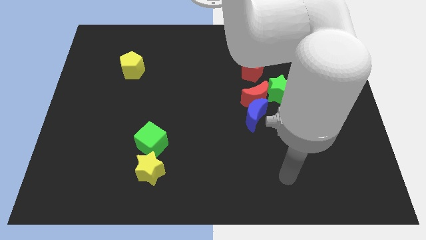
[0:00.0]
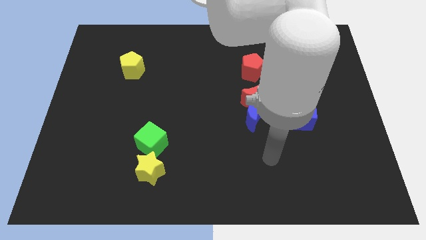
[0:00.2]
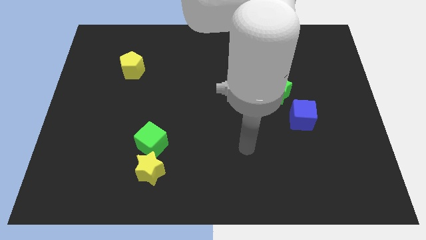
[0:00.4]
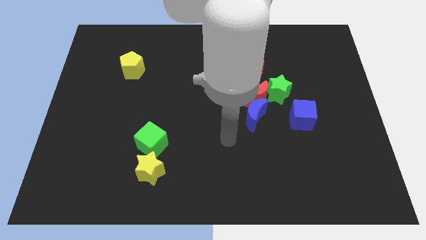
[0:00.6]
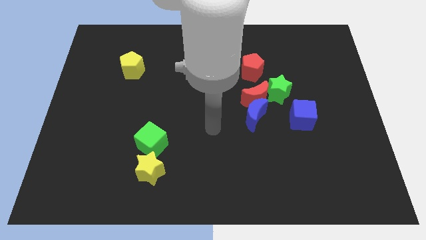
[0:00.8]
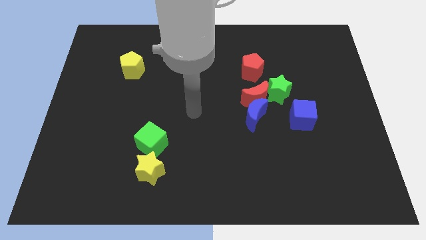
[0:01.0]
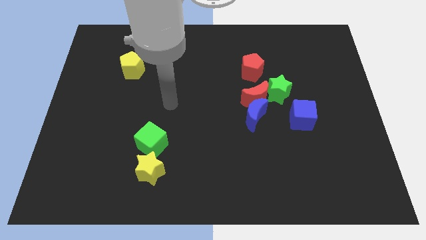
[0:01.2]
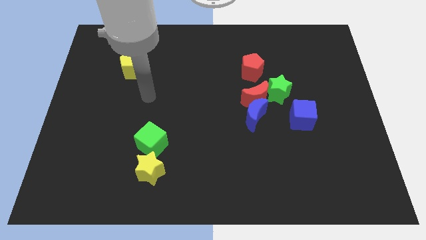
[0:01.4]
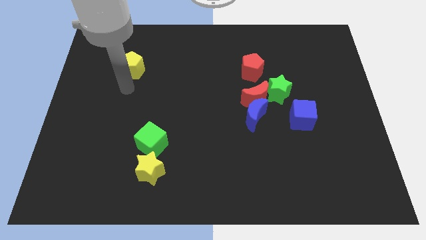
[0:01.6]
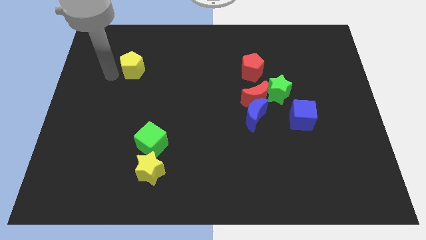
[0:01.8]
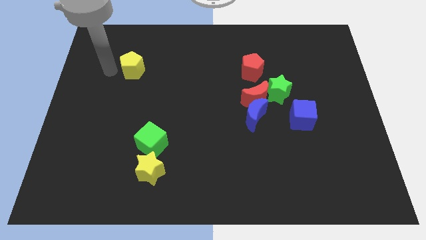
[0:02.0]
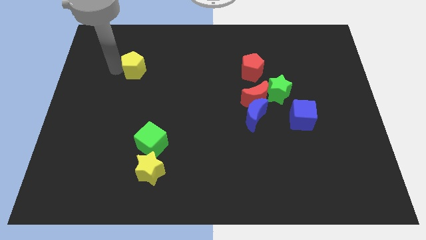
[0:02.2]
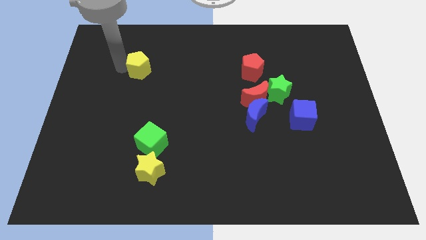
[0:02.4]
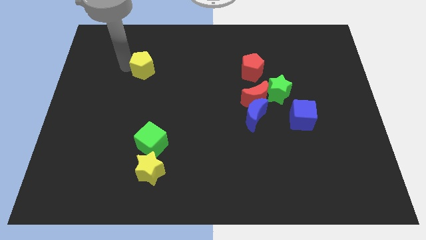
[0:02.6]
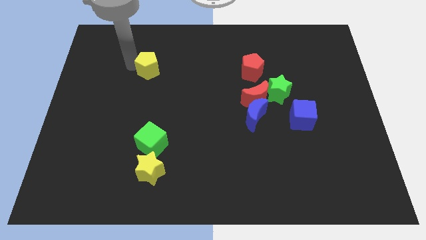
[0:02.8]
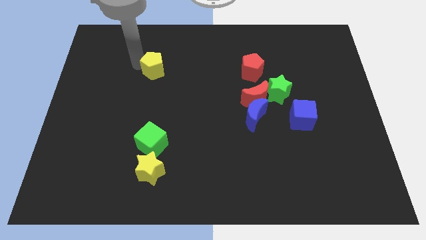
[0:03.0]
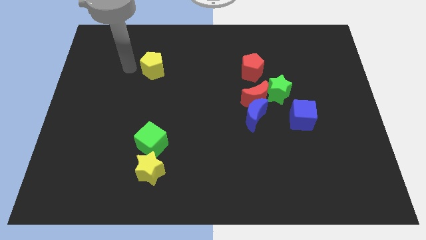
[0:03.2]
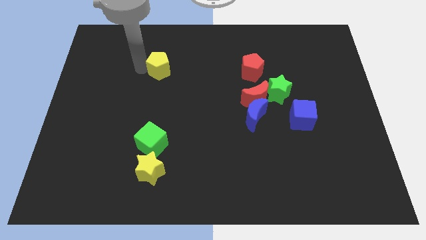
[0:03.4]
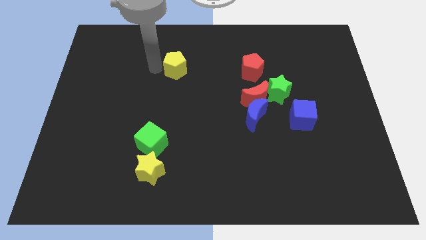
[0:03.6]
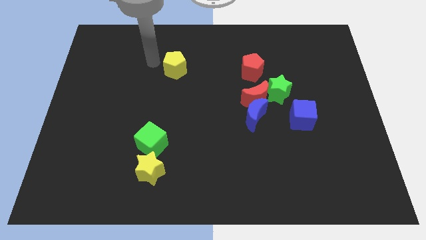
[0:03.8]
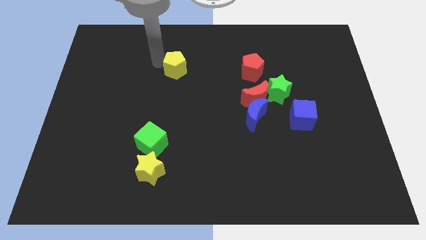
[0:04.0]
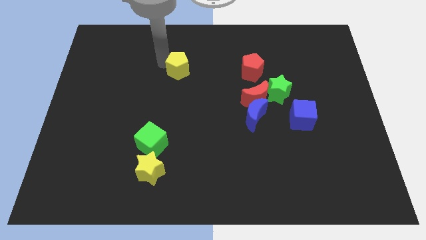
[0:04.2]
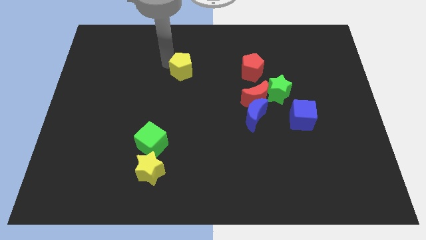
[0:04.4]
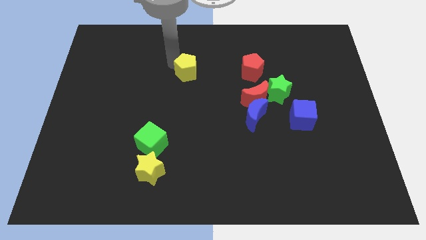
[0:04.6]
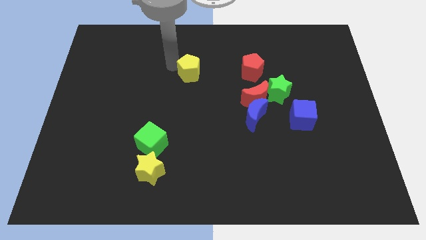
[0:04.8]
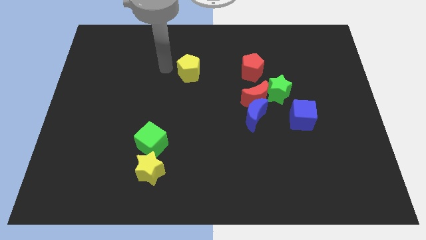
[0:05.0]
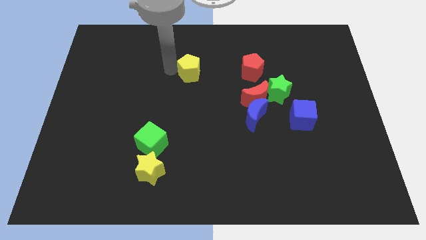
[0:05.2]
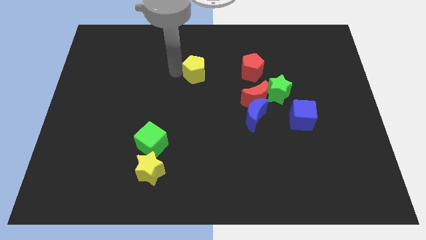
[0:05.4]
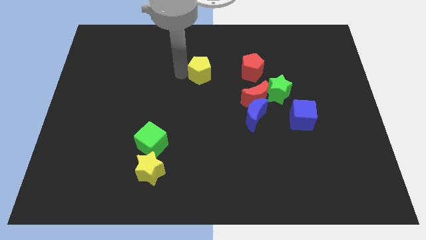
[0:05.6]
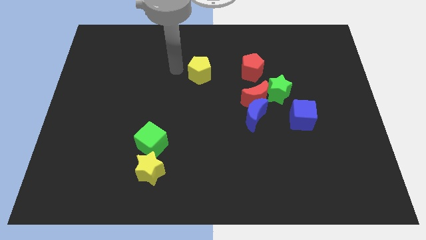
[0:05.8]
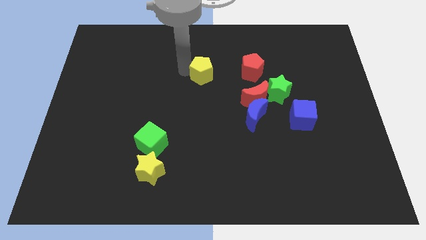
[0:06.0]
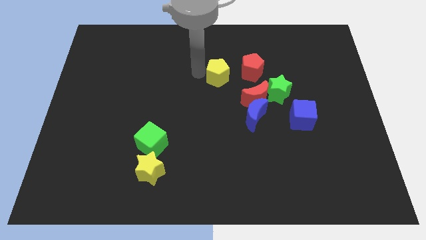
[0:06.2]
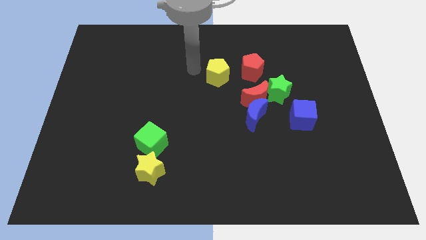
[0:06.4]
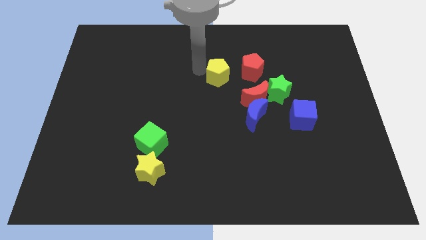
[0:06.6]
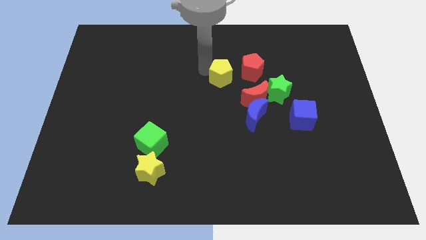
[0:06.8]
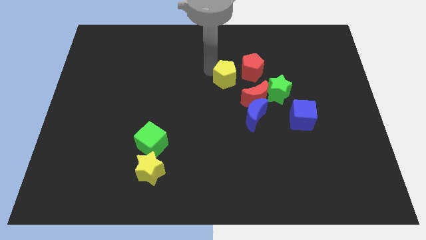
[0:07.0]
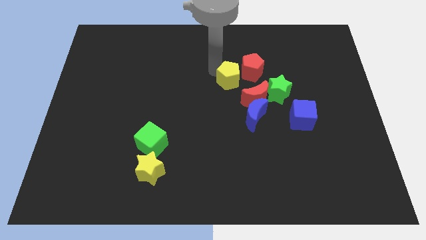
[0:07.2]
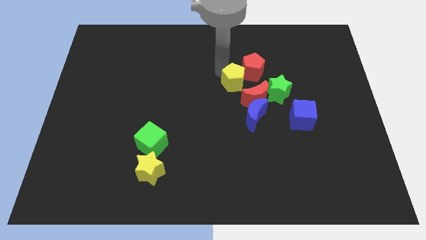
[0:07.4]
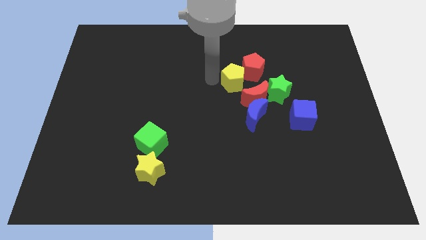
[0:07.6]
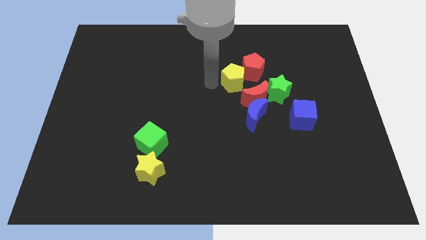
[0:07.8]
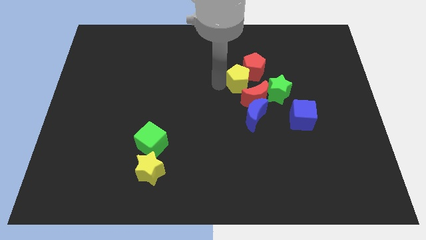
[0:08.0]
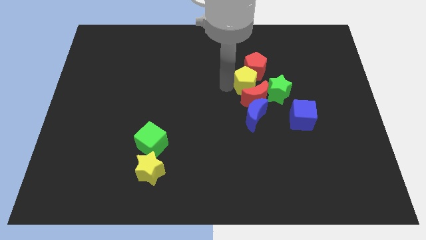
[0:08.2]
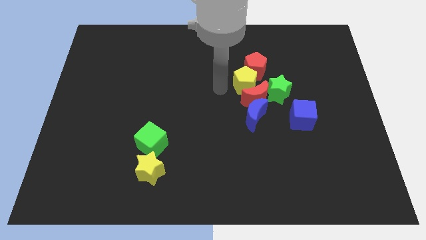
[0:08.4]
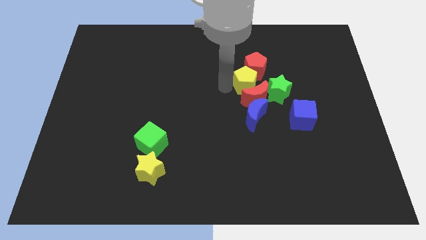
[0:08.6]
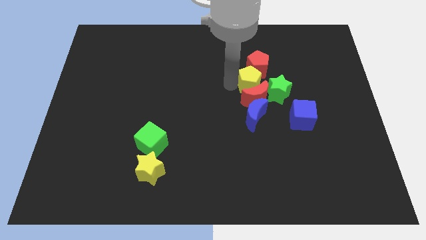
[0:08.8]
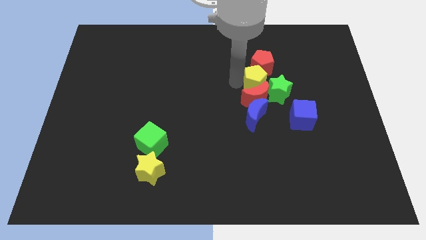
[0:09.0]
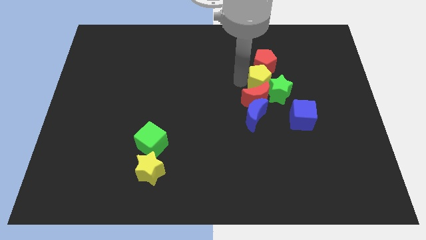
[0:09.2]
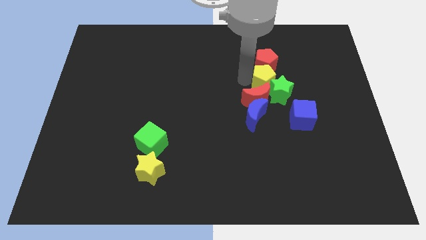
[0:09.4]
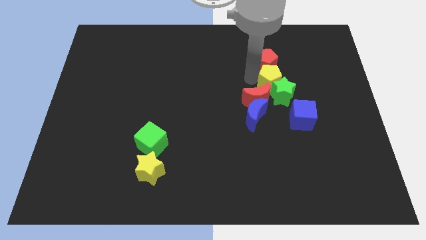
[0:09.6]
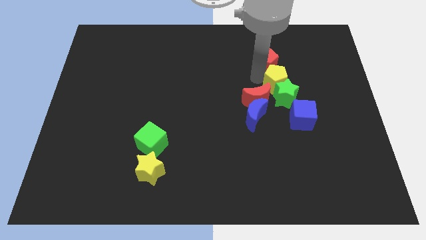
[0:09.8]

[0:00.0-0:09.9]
put the yellow pentagon to the top side of the blue cube

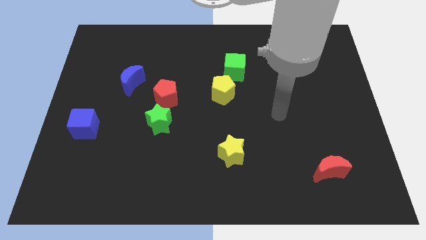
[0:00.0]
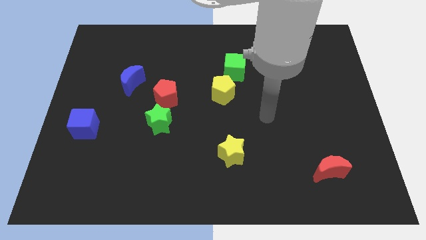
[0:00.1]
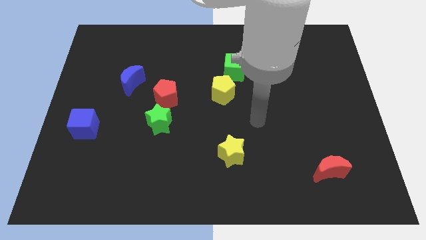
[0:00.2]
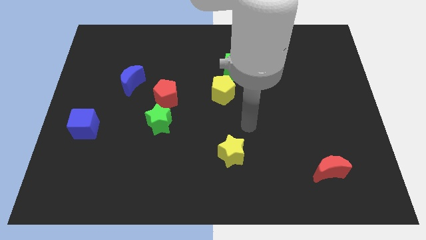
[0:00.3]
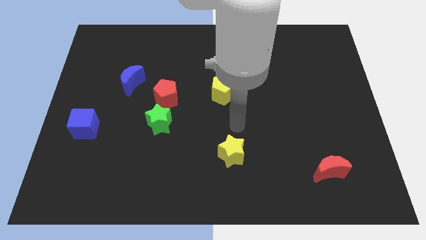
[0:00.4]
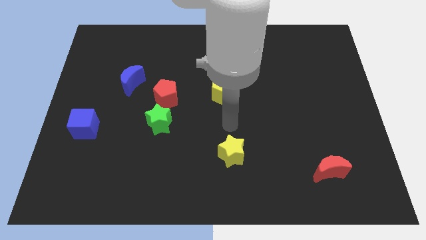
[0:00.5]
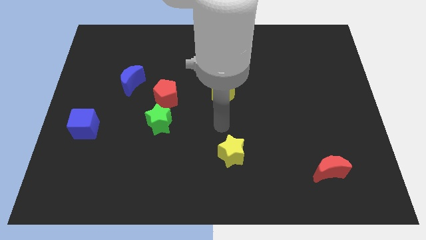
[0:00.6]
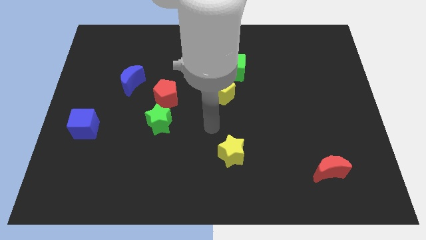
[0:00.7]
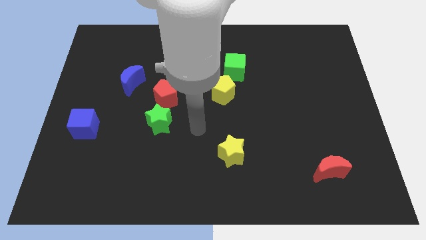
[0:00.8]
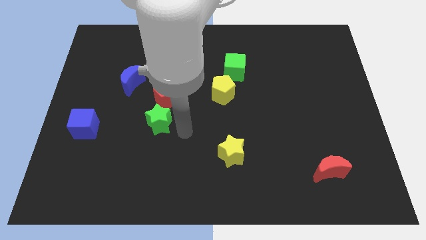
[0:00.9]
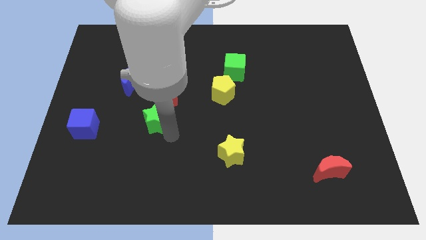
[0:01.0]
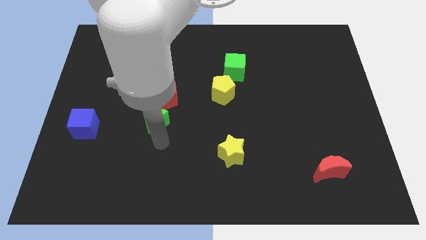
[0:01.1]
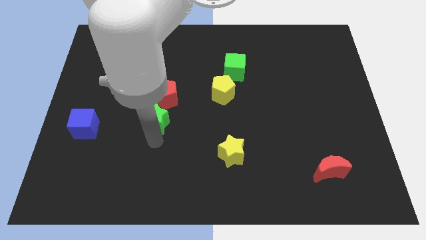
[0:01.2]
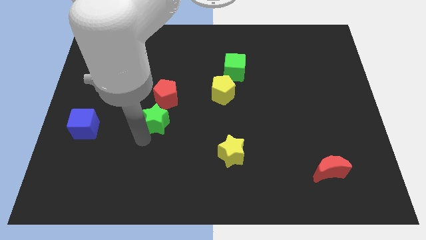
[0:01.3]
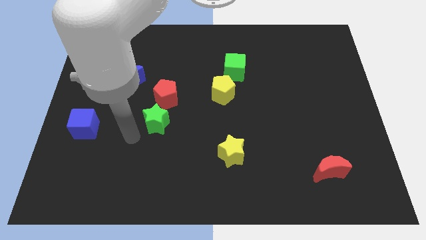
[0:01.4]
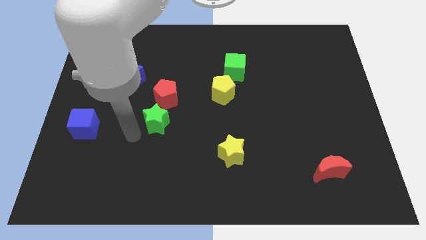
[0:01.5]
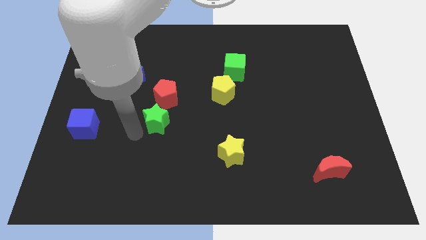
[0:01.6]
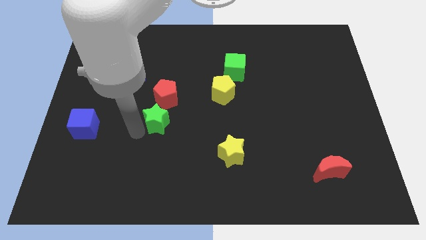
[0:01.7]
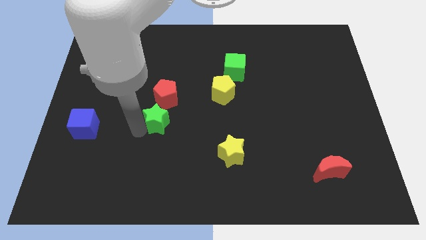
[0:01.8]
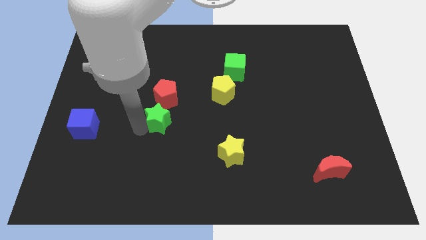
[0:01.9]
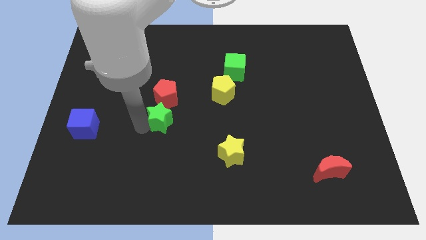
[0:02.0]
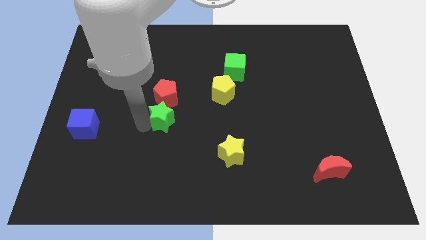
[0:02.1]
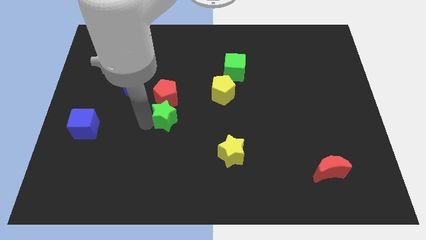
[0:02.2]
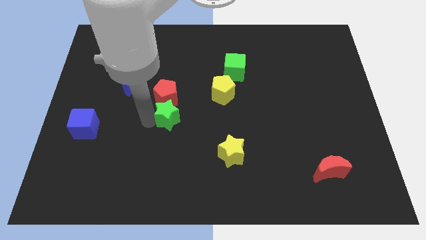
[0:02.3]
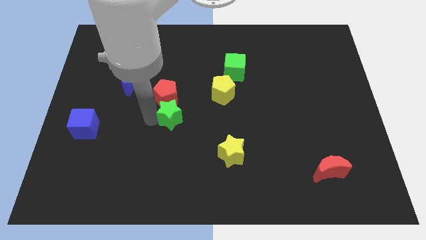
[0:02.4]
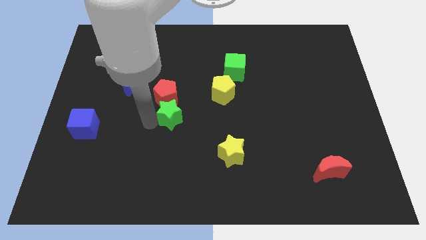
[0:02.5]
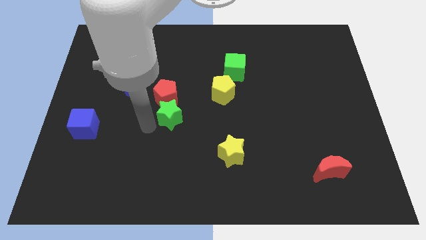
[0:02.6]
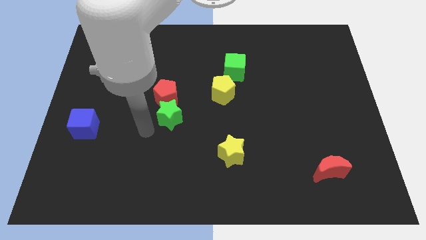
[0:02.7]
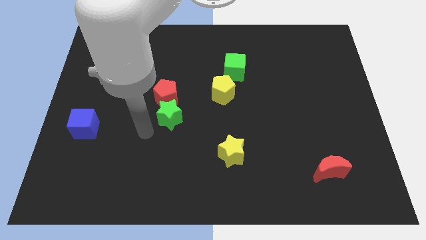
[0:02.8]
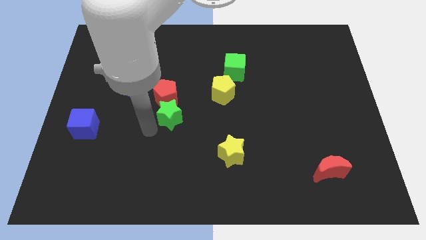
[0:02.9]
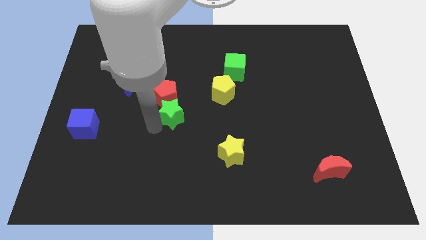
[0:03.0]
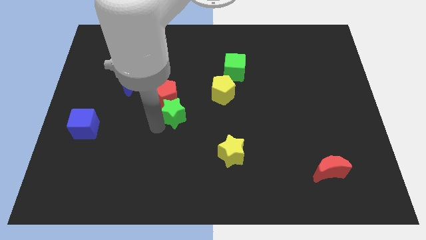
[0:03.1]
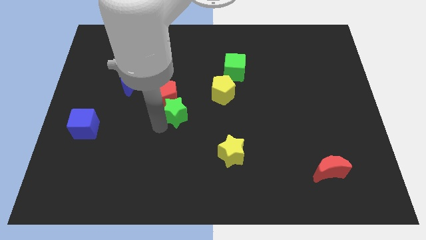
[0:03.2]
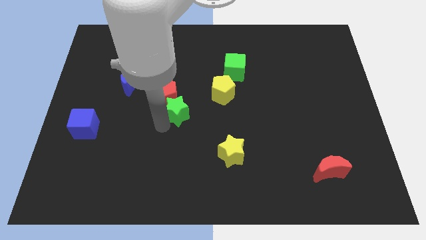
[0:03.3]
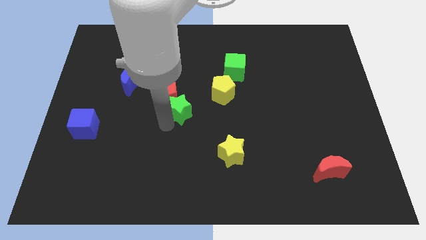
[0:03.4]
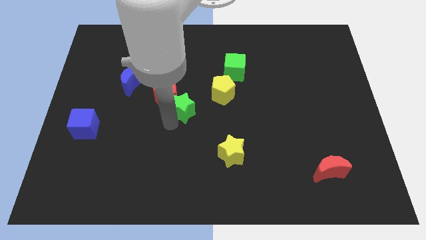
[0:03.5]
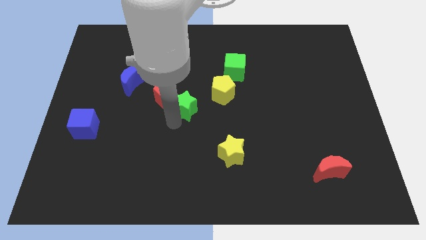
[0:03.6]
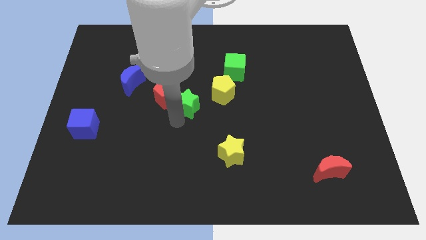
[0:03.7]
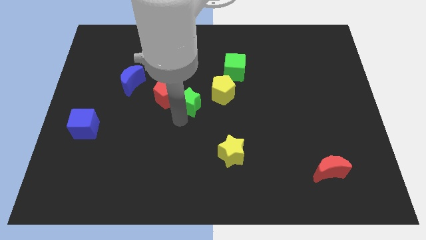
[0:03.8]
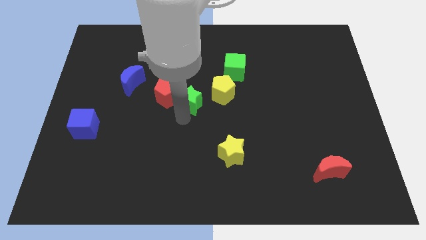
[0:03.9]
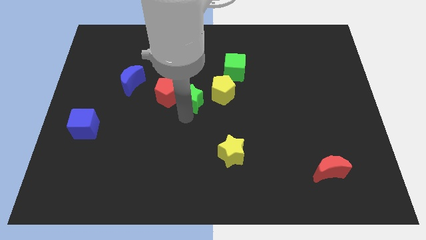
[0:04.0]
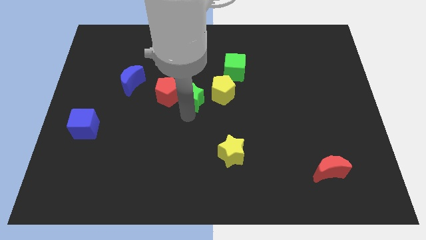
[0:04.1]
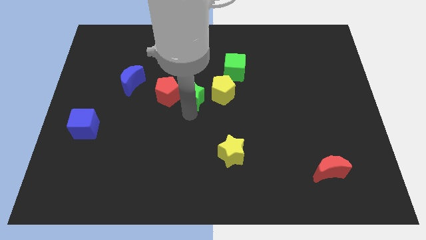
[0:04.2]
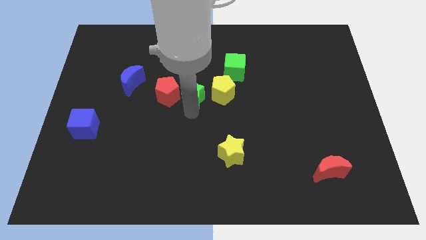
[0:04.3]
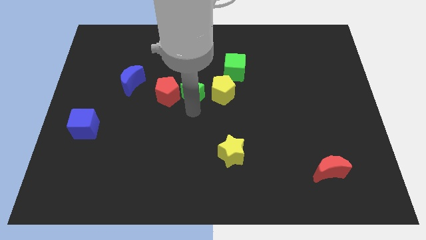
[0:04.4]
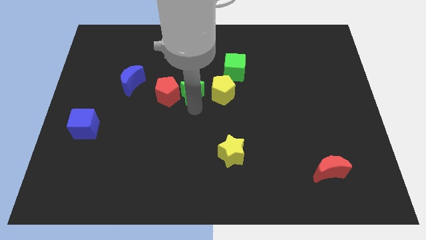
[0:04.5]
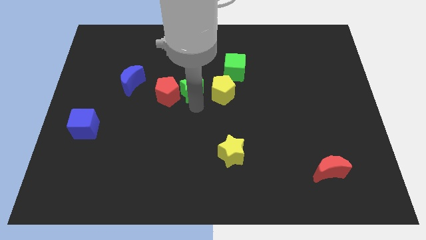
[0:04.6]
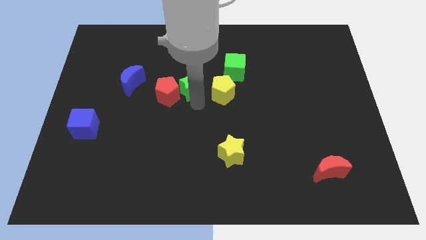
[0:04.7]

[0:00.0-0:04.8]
push the green star to the top left side of the yellow pentagon
